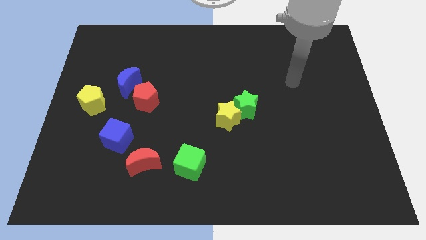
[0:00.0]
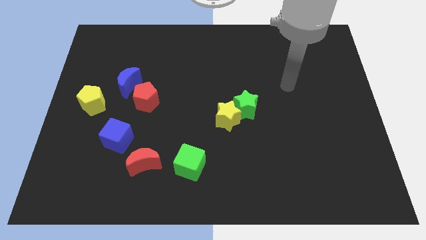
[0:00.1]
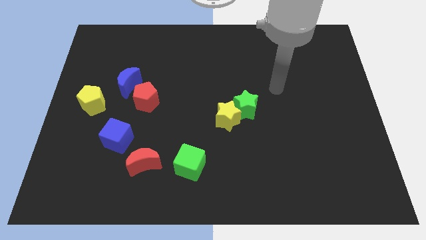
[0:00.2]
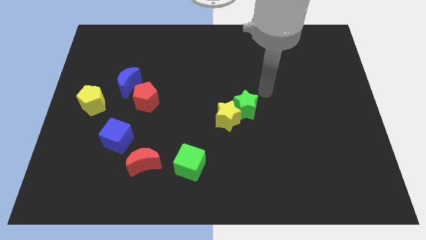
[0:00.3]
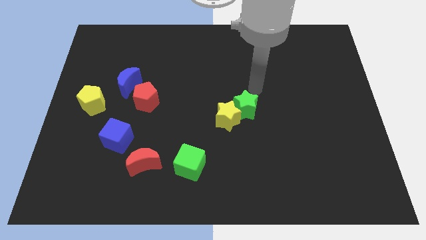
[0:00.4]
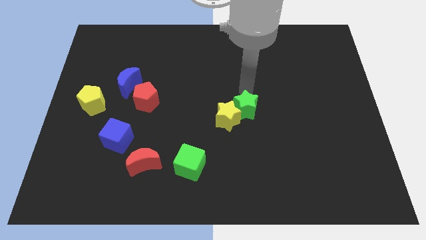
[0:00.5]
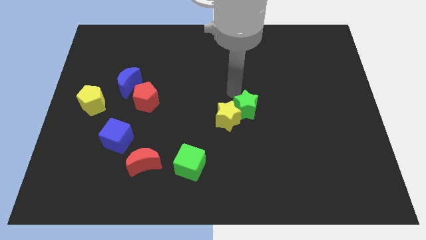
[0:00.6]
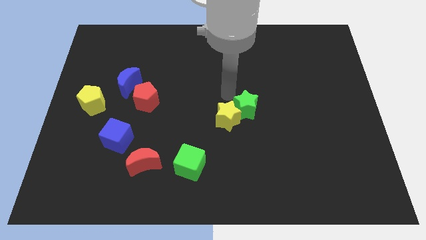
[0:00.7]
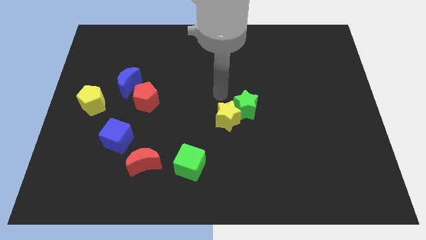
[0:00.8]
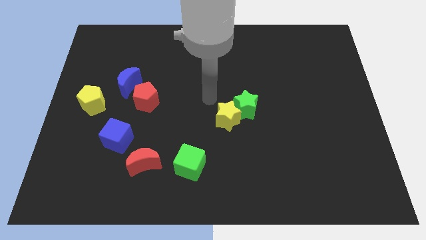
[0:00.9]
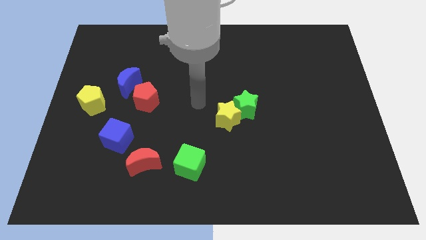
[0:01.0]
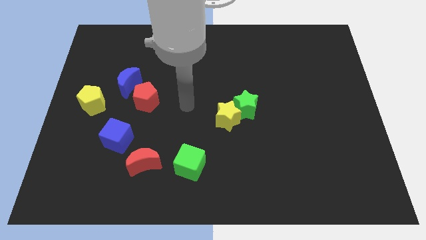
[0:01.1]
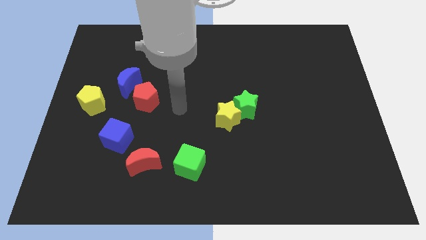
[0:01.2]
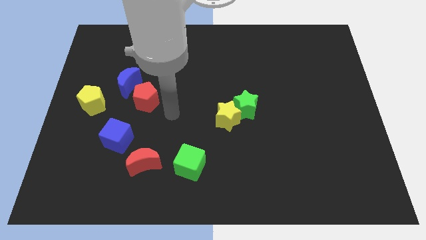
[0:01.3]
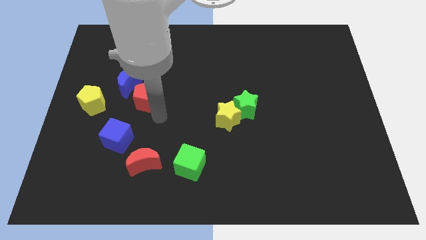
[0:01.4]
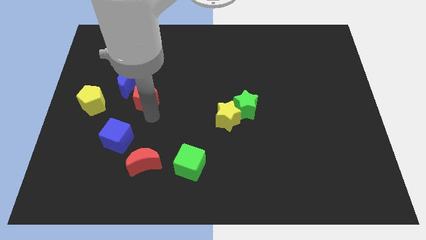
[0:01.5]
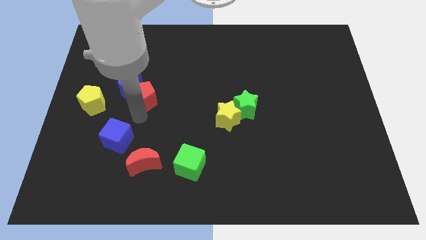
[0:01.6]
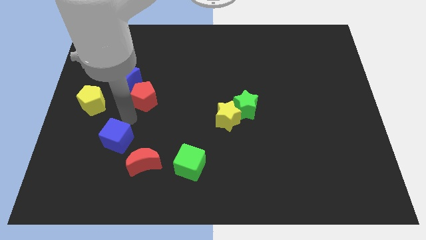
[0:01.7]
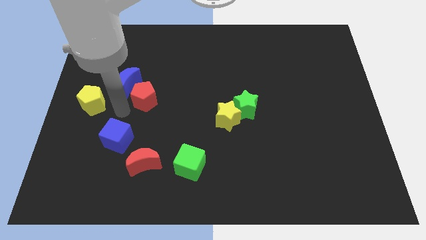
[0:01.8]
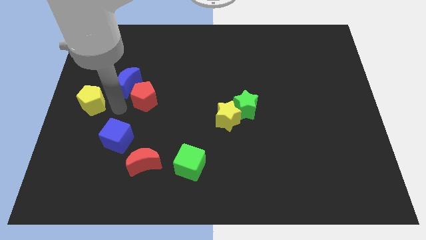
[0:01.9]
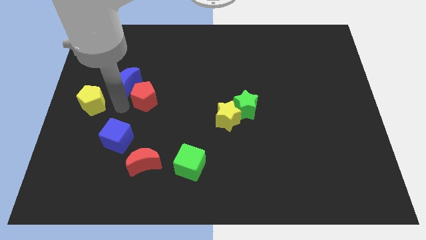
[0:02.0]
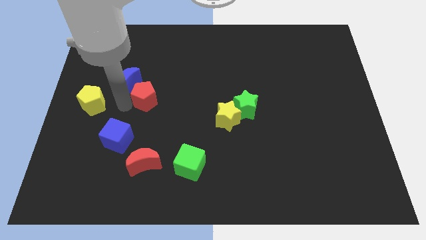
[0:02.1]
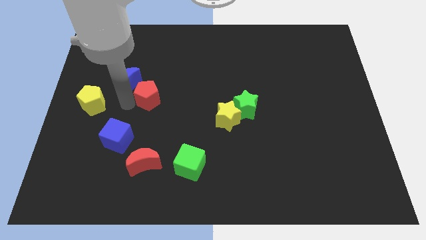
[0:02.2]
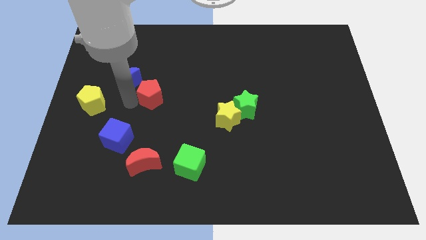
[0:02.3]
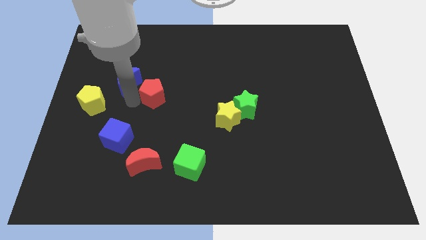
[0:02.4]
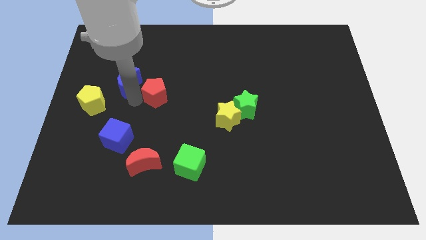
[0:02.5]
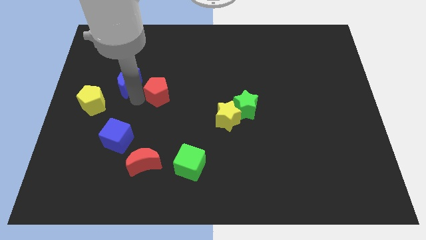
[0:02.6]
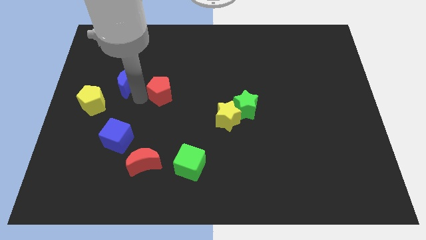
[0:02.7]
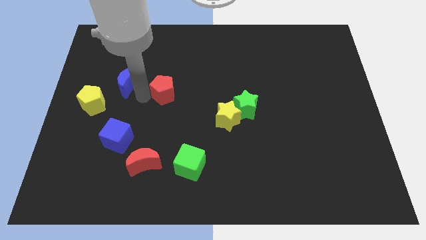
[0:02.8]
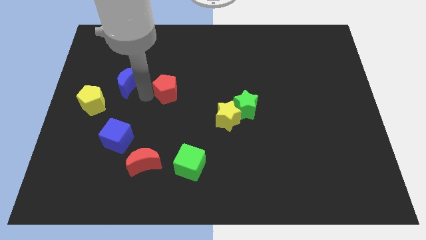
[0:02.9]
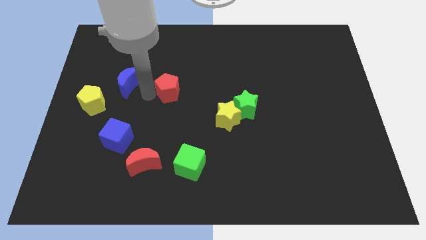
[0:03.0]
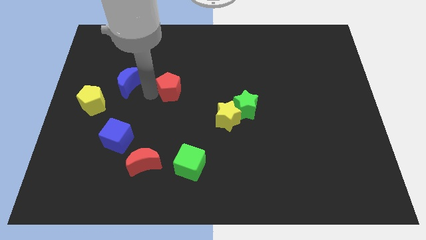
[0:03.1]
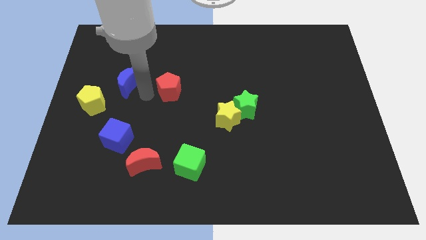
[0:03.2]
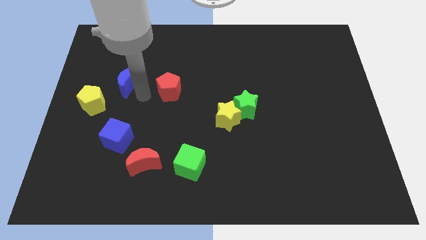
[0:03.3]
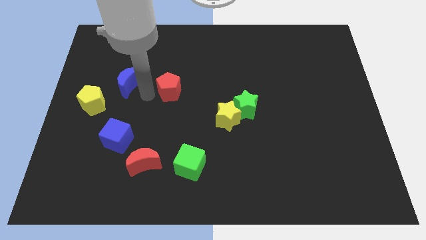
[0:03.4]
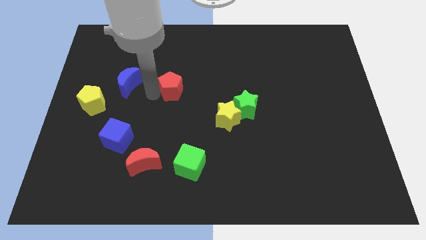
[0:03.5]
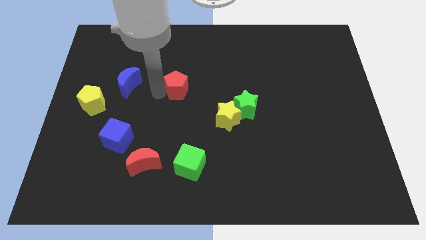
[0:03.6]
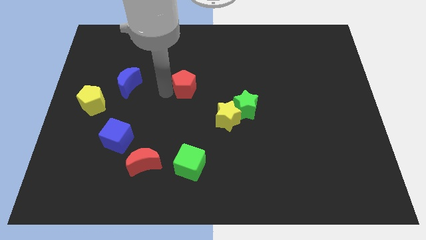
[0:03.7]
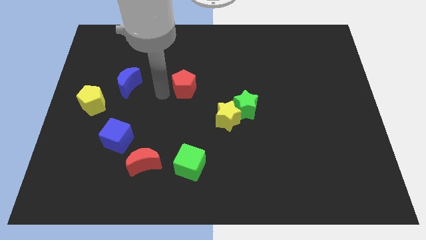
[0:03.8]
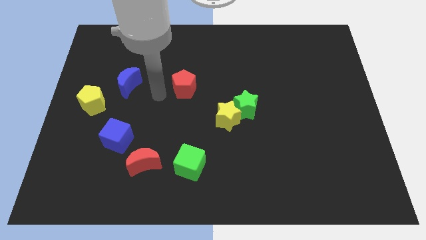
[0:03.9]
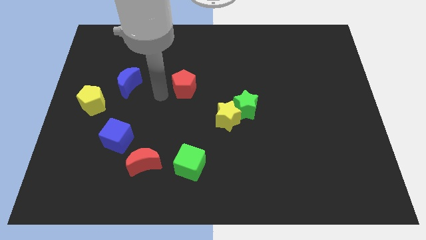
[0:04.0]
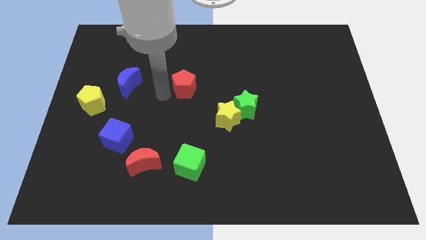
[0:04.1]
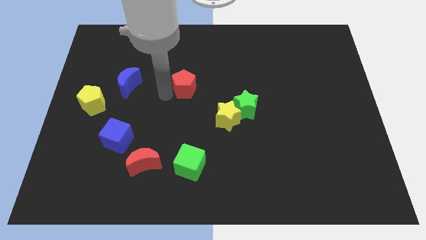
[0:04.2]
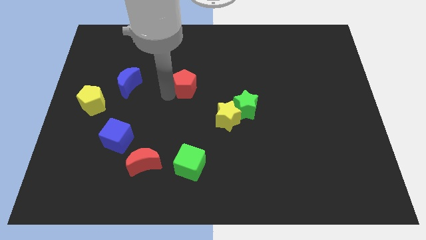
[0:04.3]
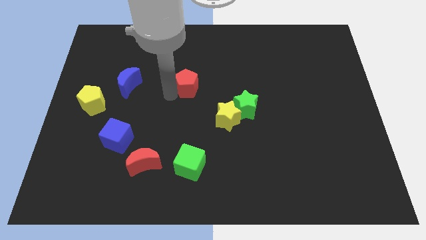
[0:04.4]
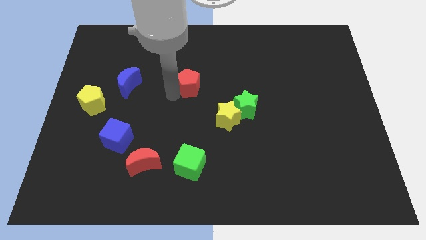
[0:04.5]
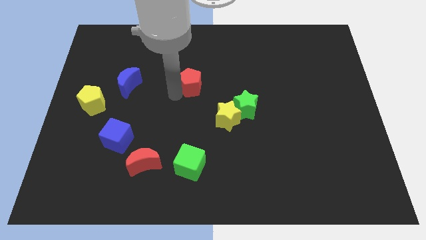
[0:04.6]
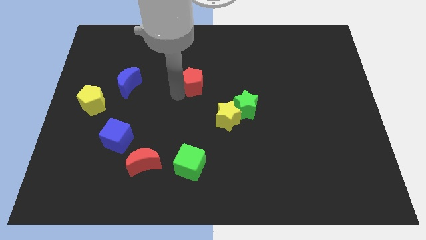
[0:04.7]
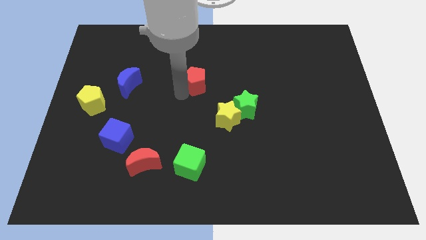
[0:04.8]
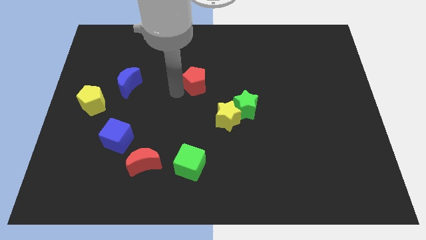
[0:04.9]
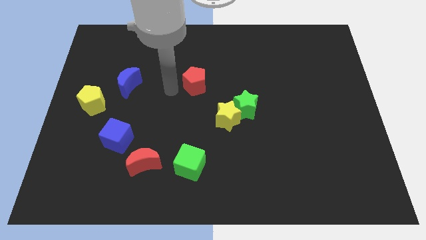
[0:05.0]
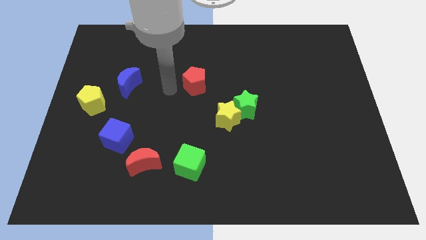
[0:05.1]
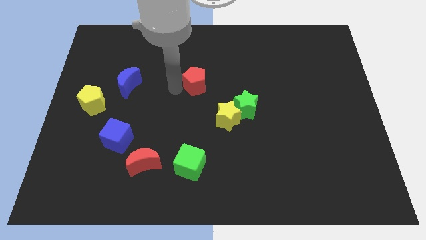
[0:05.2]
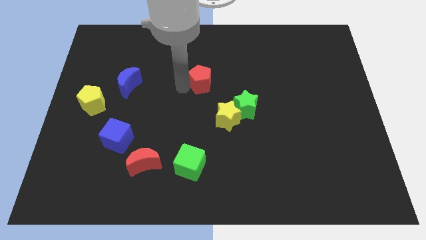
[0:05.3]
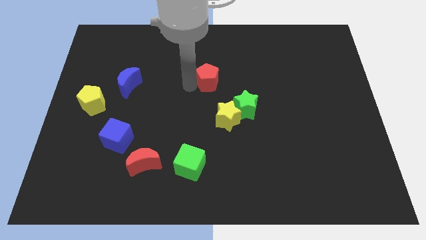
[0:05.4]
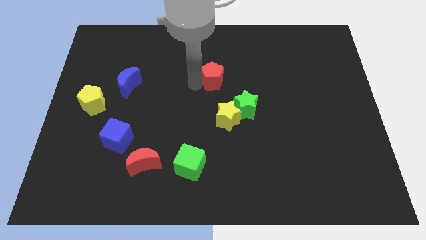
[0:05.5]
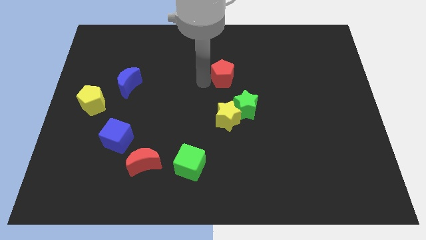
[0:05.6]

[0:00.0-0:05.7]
move the red pentagon to the top of the green star

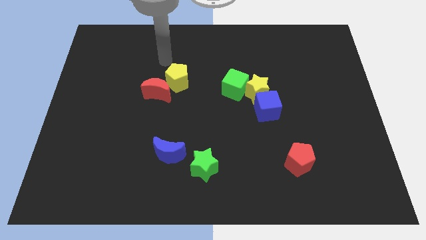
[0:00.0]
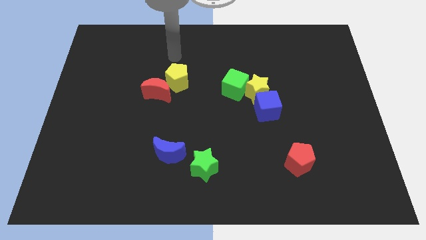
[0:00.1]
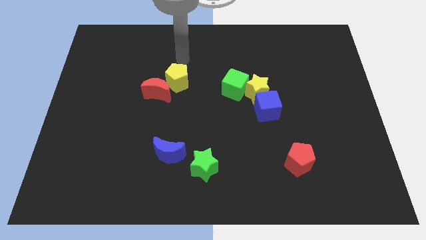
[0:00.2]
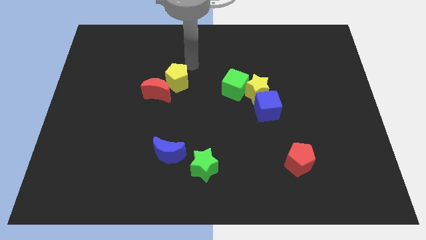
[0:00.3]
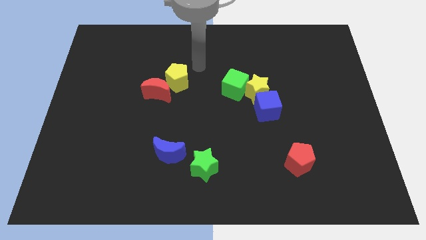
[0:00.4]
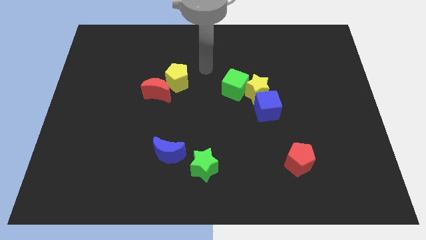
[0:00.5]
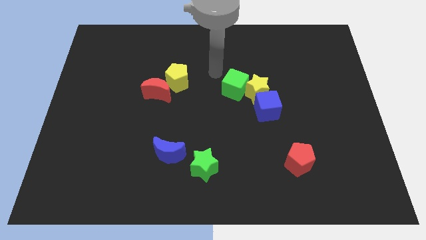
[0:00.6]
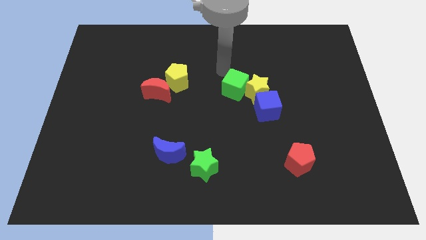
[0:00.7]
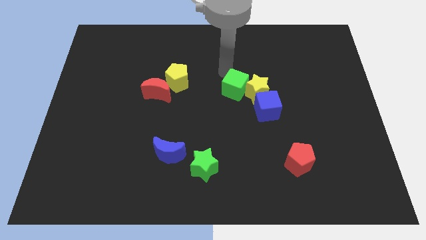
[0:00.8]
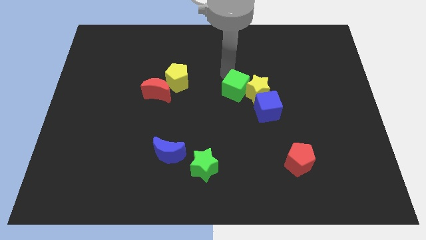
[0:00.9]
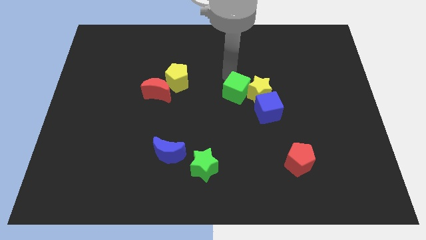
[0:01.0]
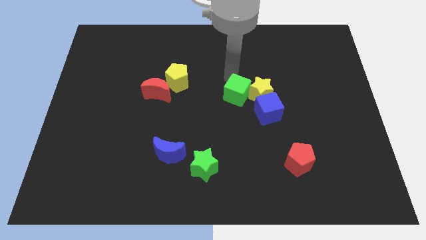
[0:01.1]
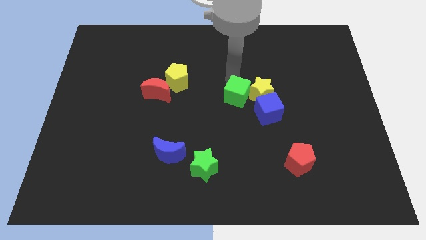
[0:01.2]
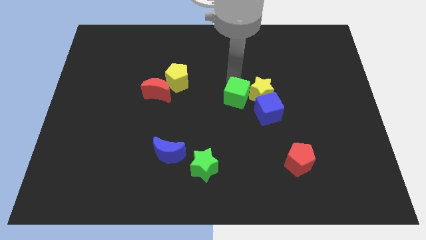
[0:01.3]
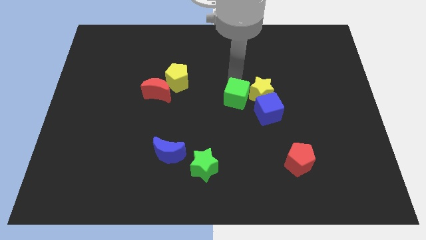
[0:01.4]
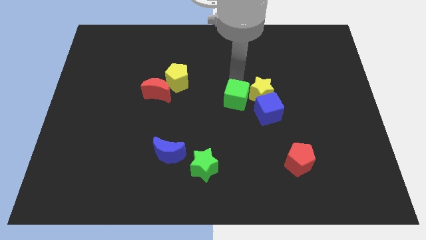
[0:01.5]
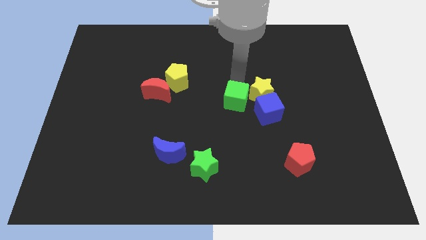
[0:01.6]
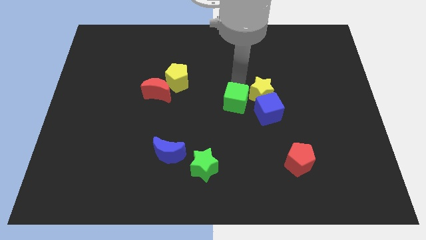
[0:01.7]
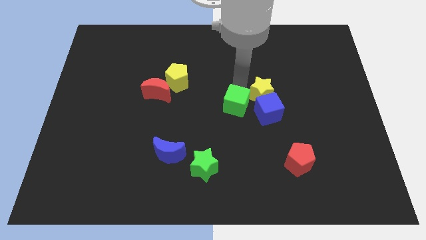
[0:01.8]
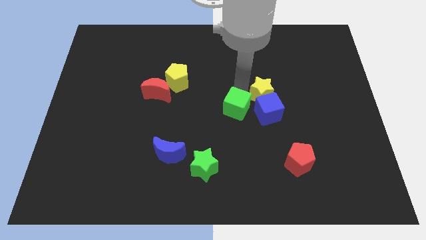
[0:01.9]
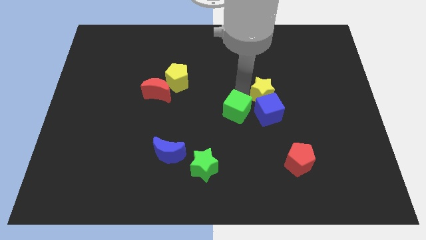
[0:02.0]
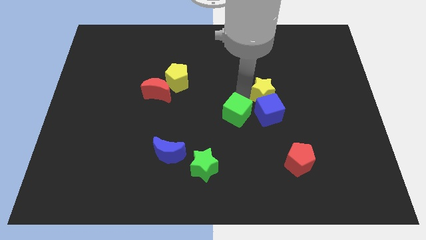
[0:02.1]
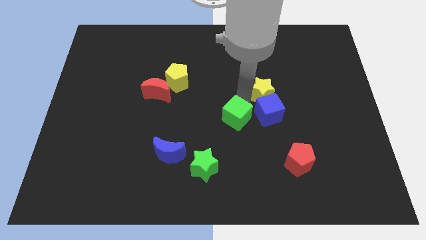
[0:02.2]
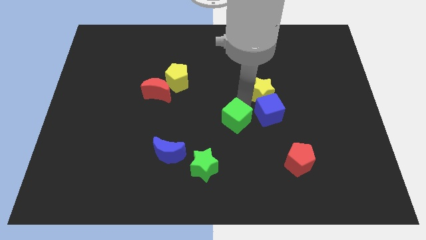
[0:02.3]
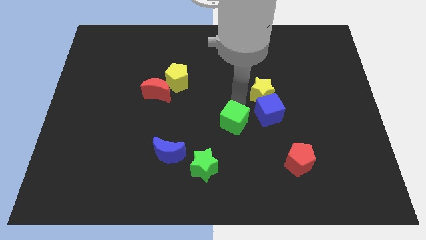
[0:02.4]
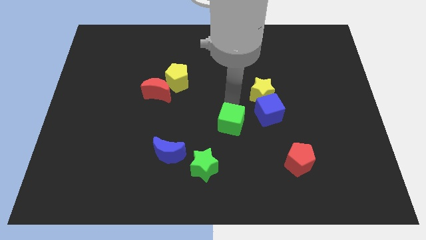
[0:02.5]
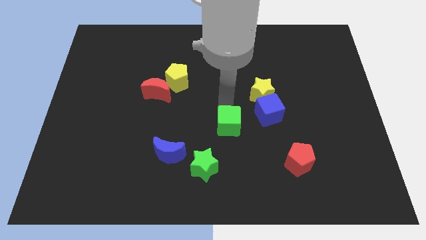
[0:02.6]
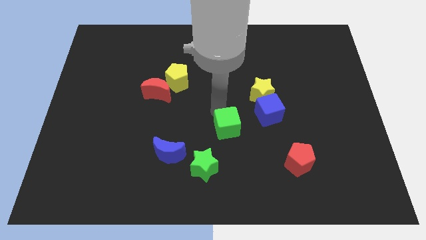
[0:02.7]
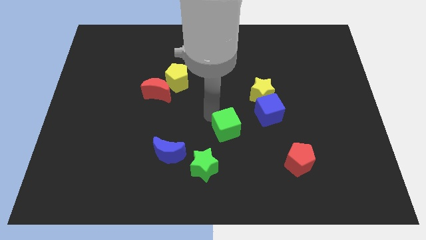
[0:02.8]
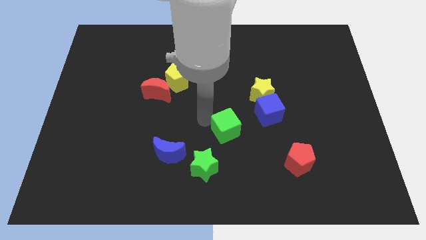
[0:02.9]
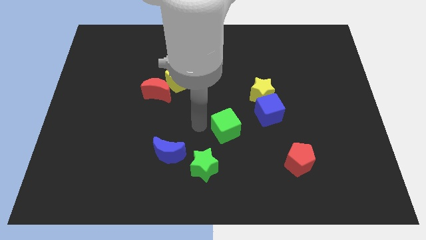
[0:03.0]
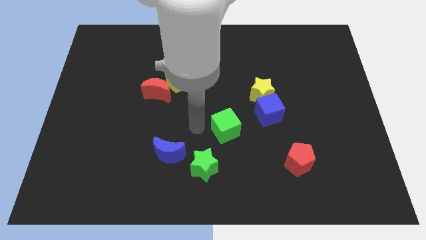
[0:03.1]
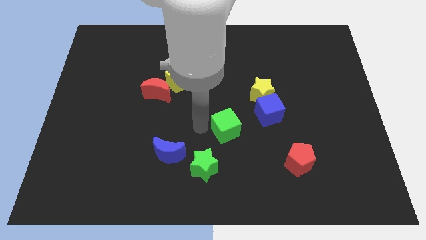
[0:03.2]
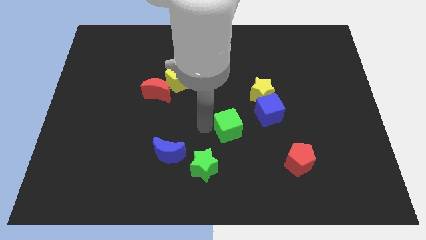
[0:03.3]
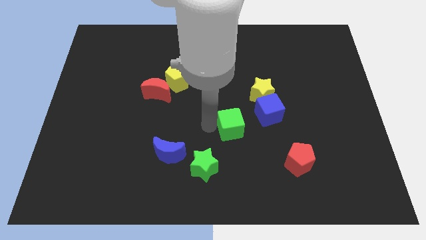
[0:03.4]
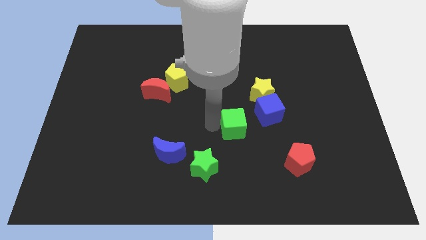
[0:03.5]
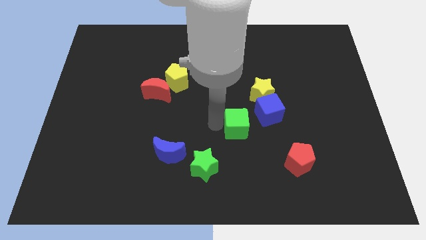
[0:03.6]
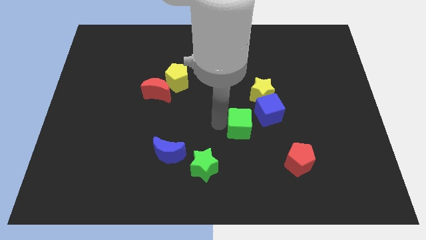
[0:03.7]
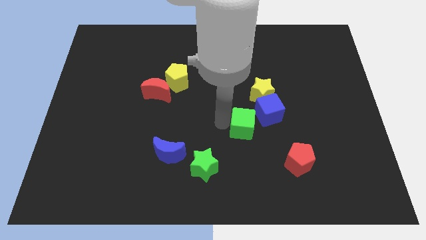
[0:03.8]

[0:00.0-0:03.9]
push the green cube to the bottom side of the yellow star
